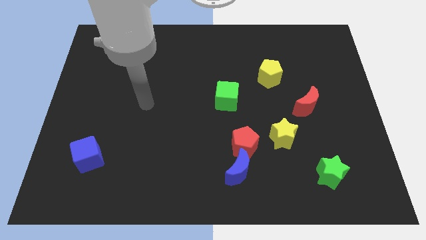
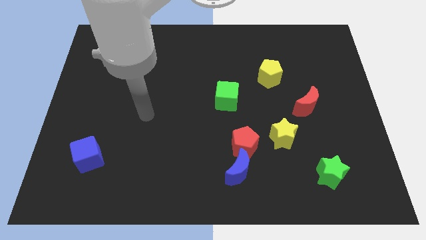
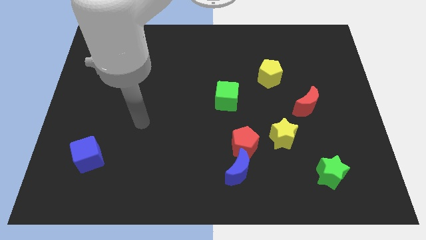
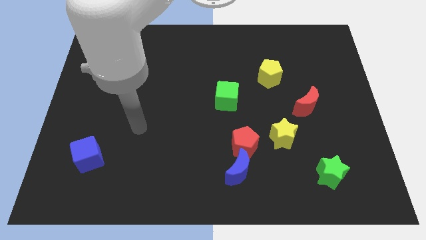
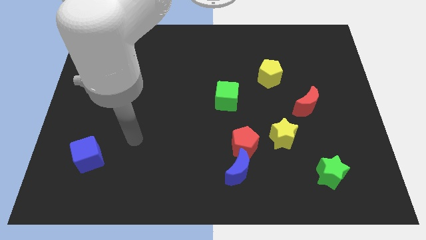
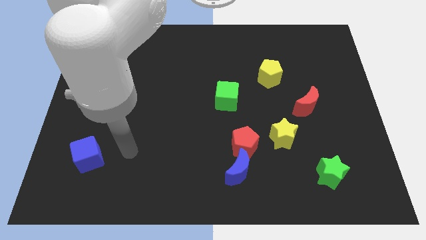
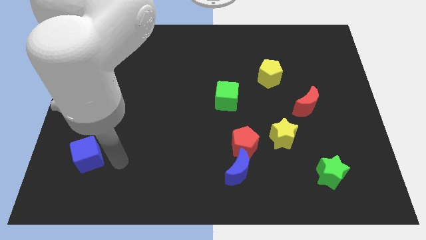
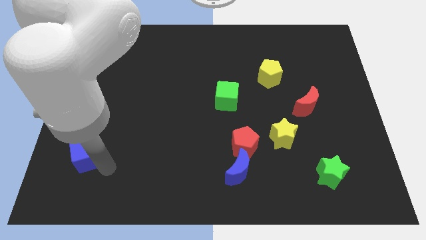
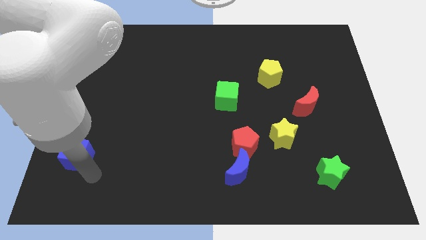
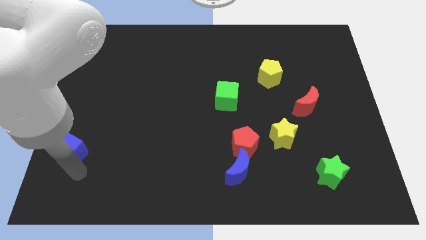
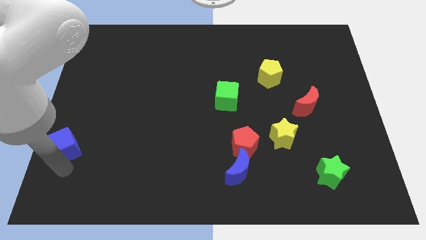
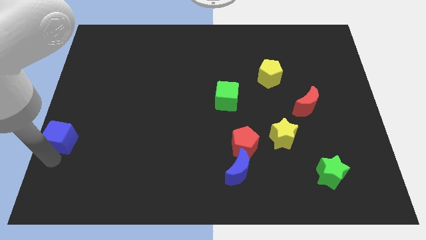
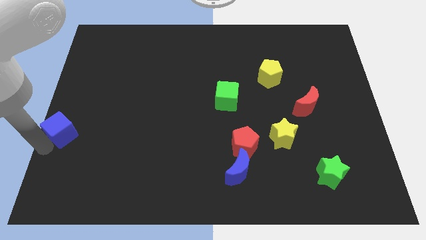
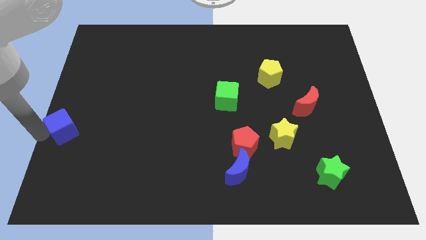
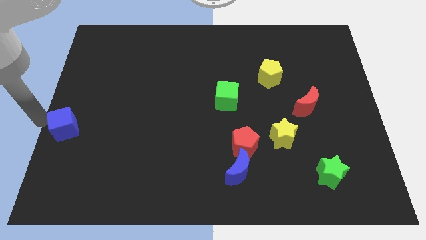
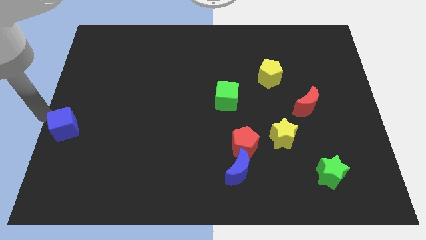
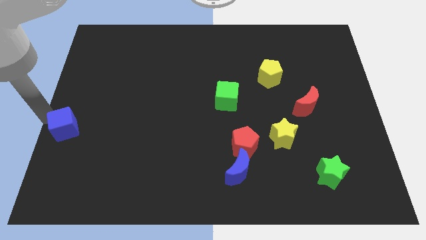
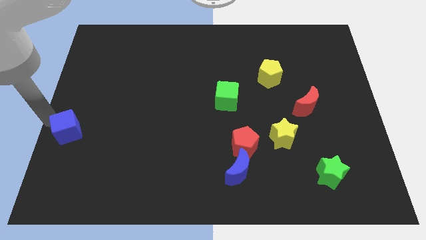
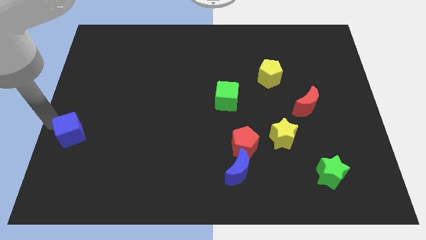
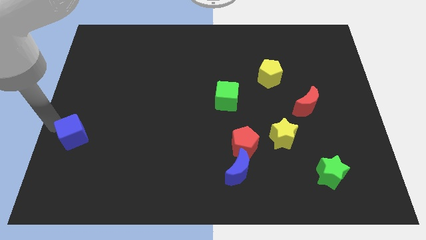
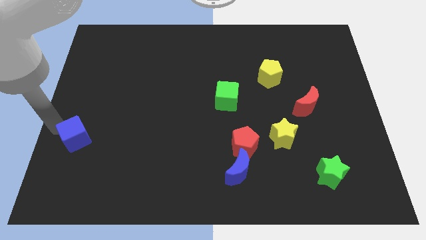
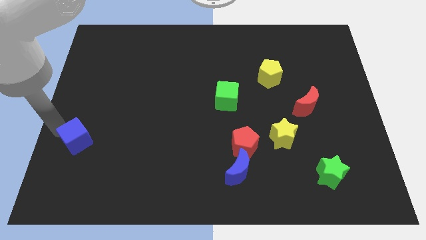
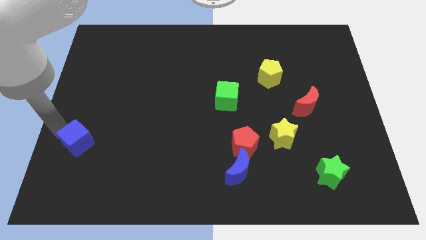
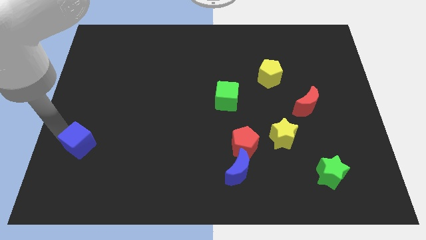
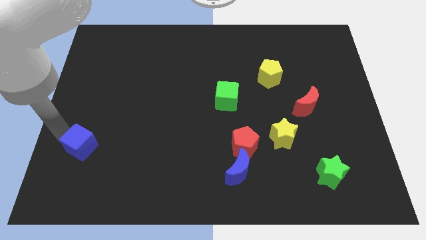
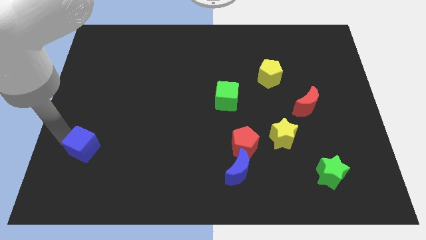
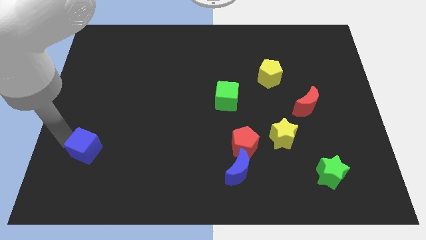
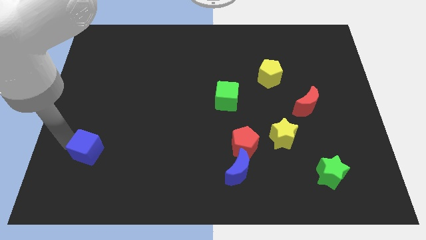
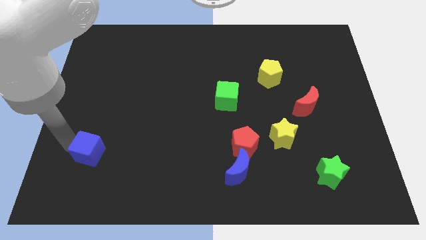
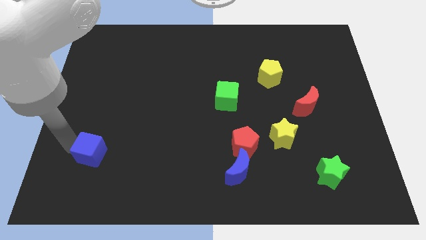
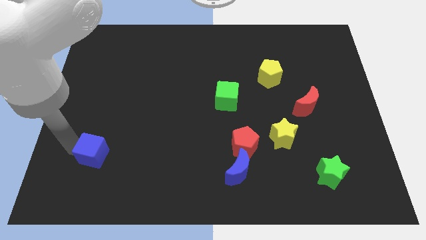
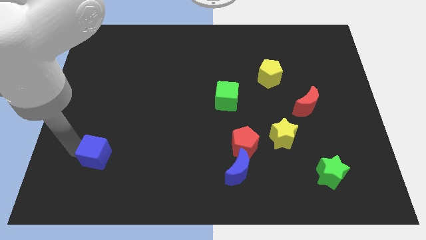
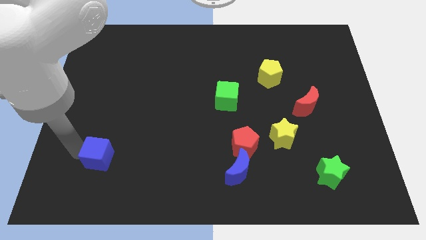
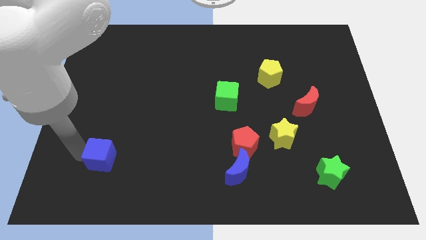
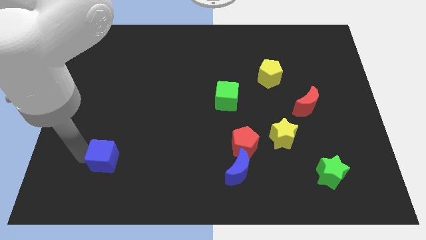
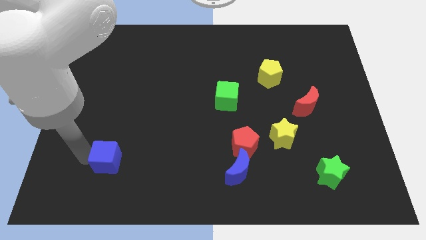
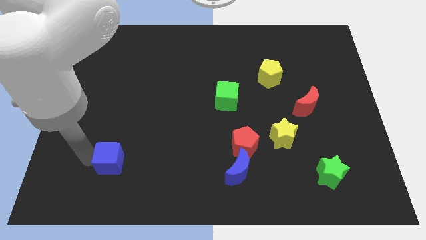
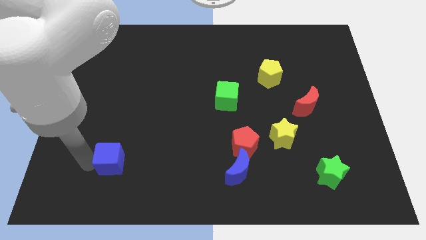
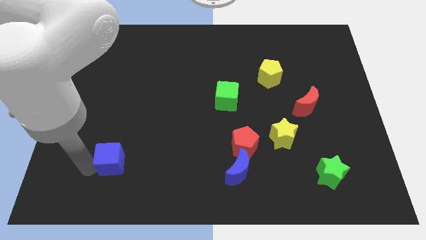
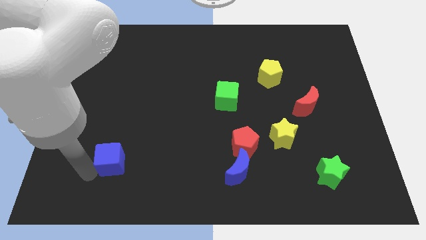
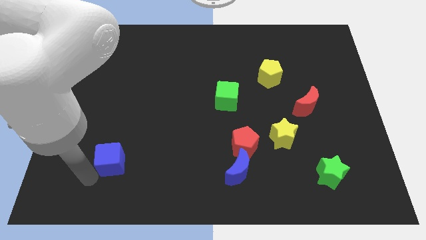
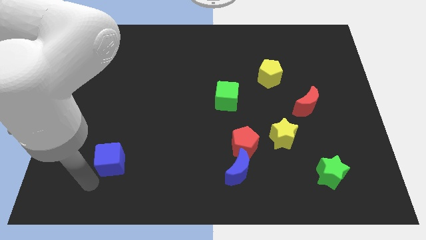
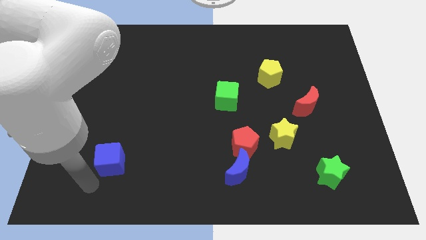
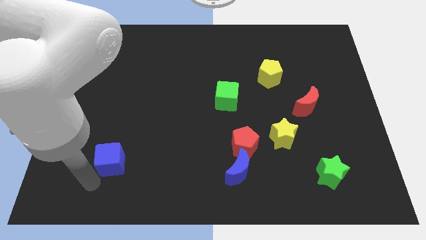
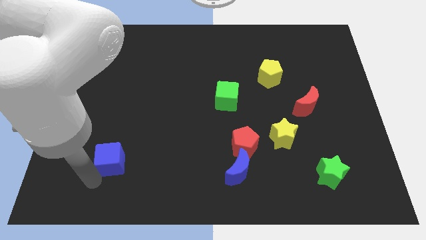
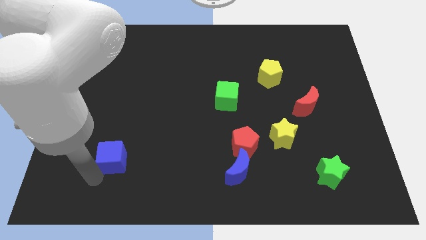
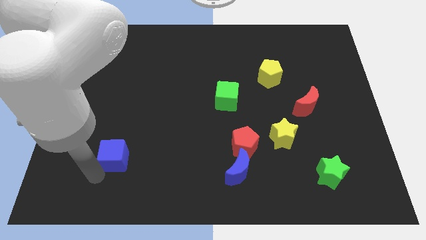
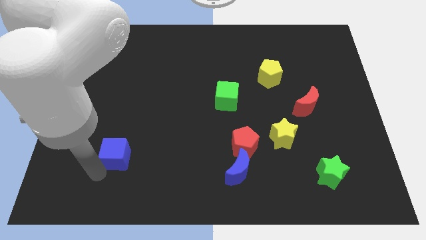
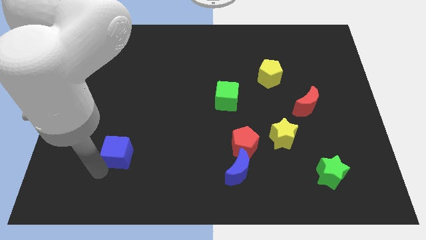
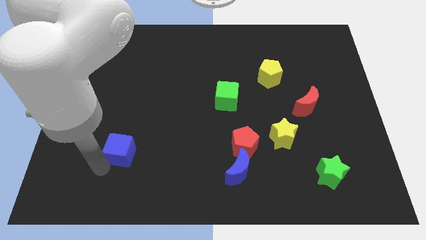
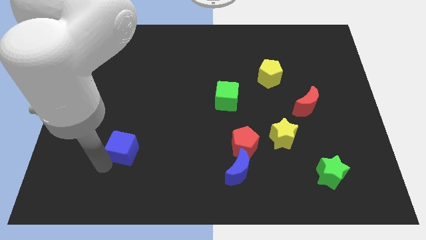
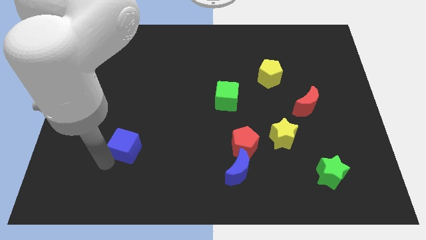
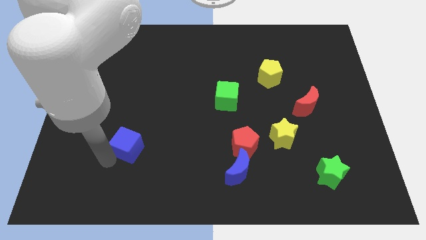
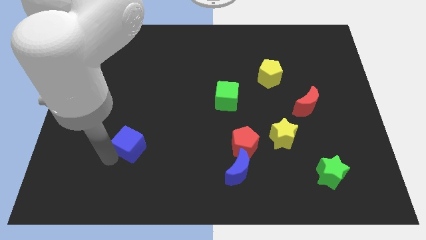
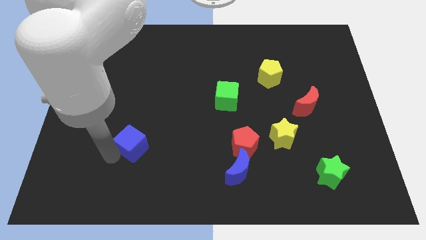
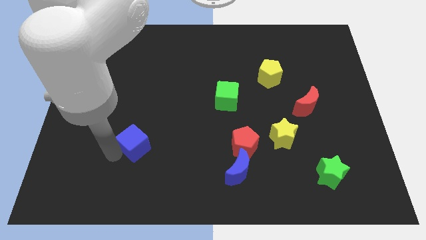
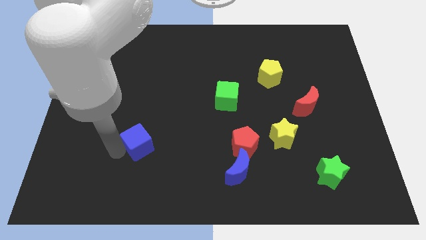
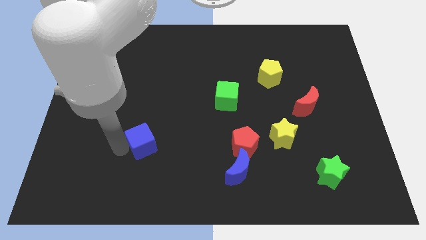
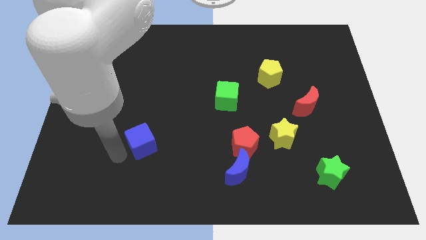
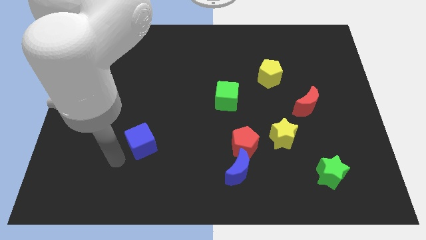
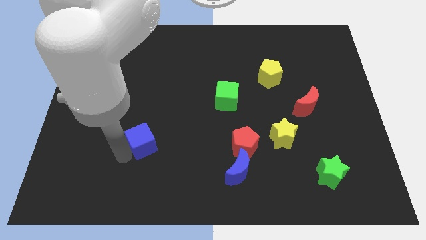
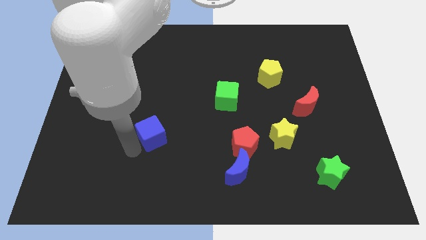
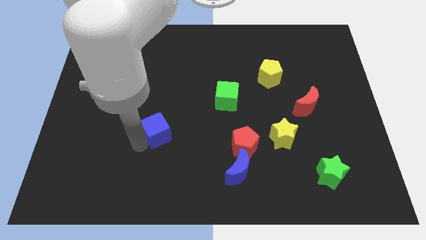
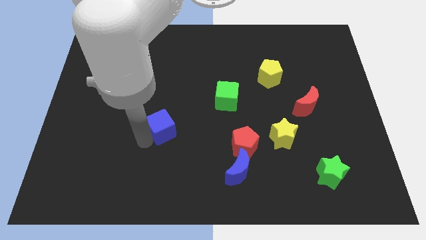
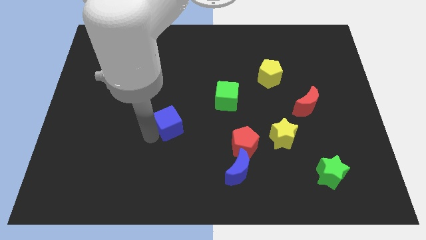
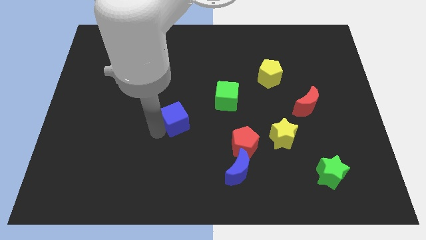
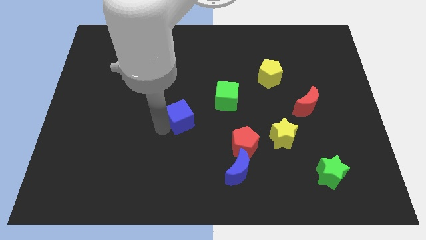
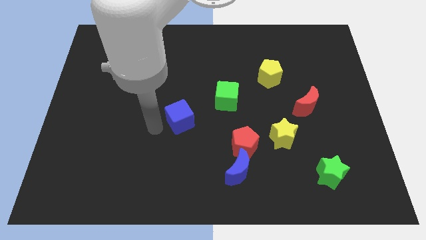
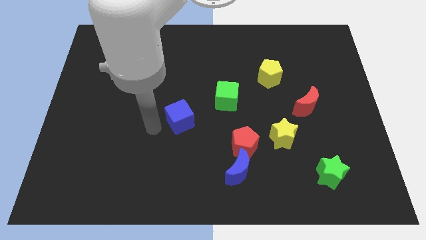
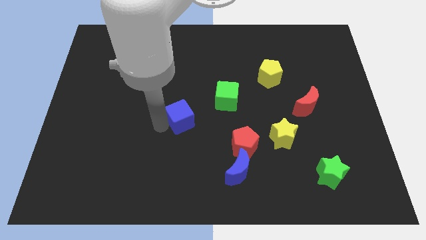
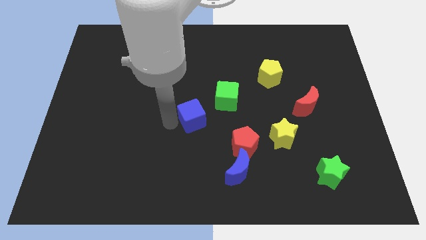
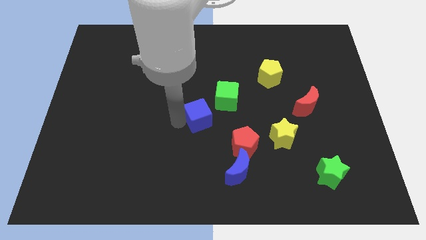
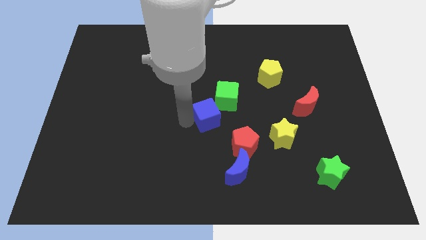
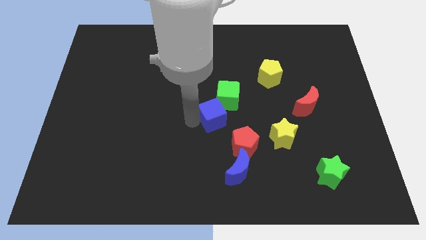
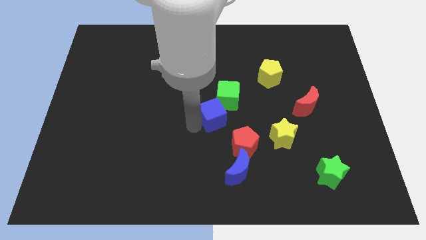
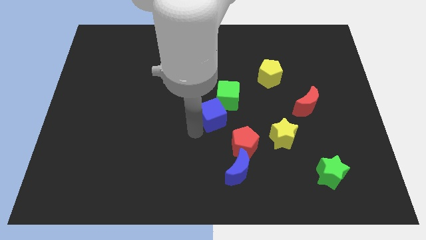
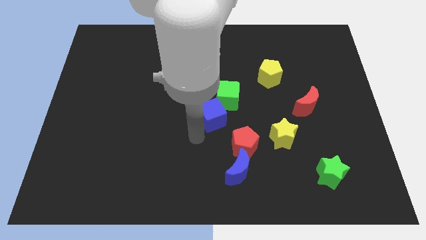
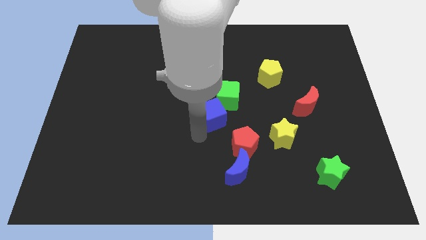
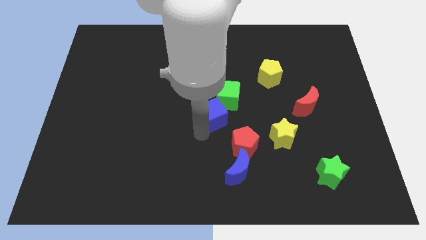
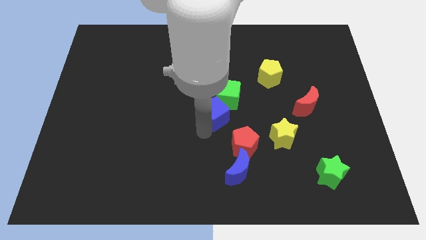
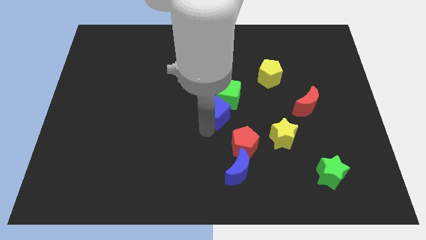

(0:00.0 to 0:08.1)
push the blue cube towards the green cube
